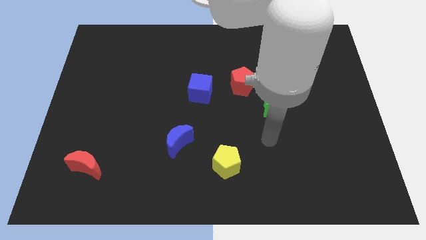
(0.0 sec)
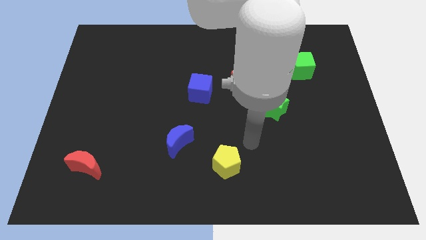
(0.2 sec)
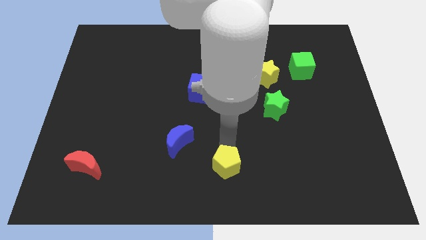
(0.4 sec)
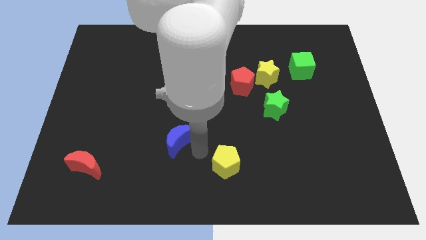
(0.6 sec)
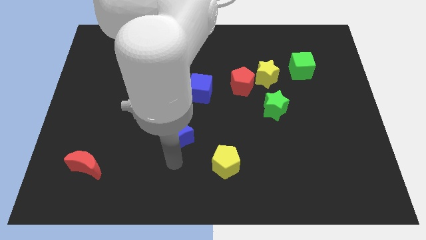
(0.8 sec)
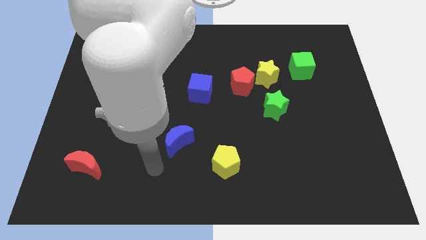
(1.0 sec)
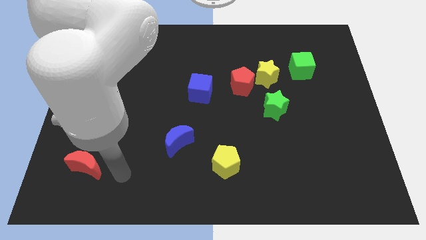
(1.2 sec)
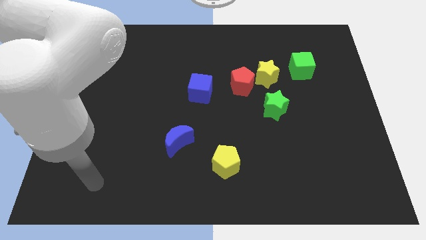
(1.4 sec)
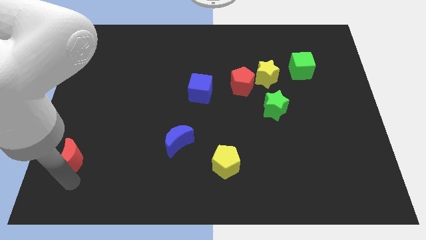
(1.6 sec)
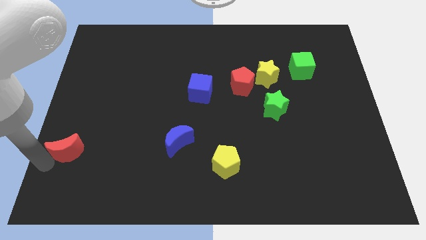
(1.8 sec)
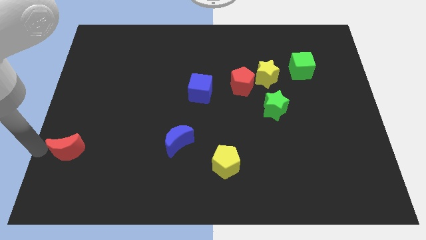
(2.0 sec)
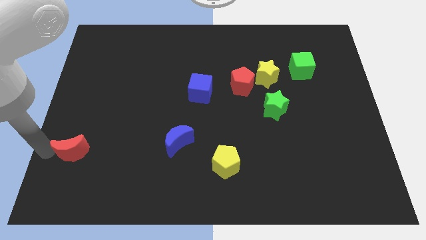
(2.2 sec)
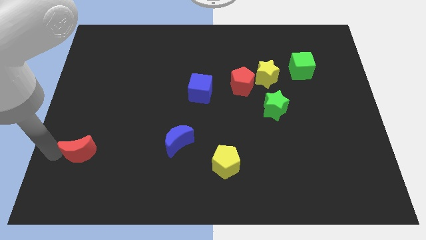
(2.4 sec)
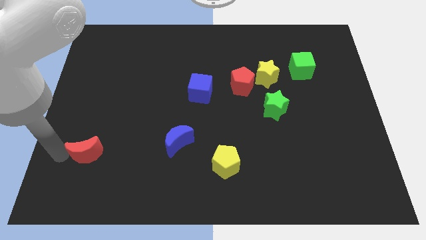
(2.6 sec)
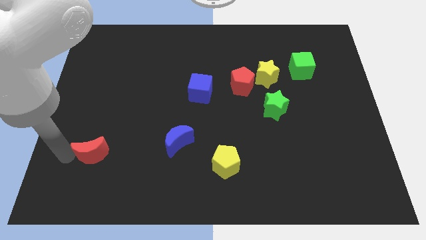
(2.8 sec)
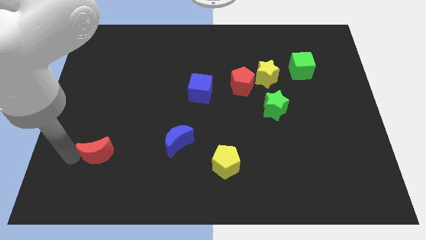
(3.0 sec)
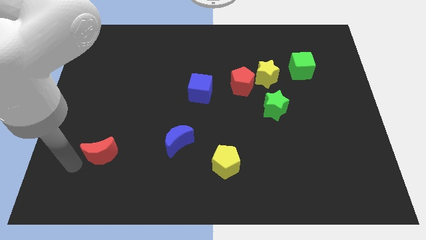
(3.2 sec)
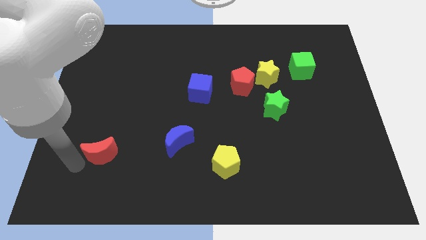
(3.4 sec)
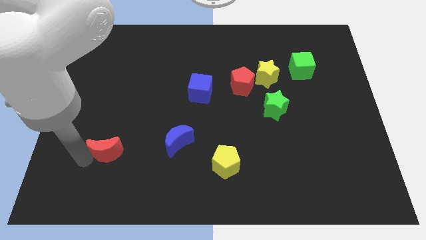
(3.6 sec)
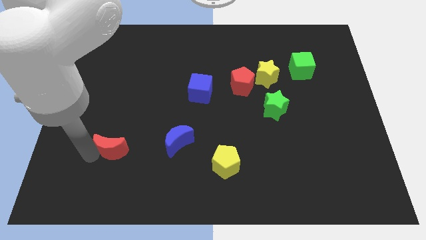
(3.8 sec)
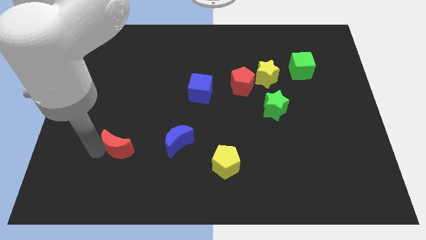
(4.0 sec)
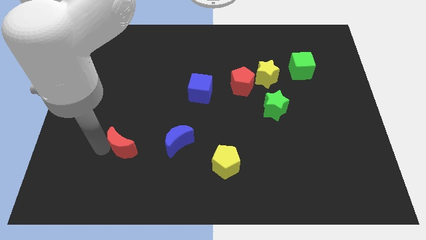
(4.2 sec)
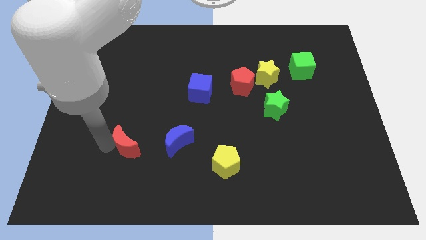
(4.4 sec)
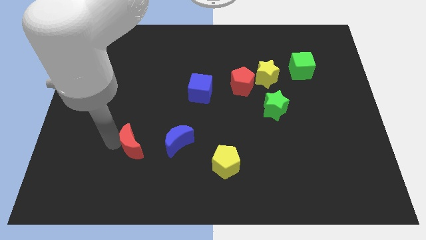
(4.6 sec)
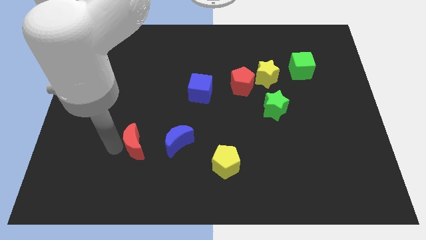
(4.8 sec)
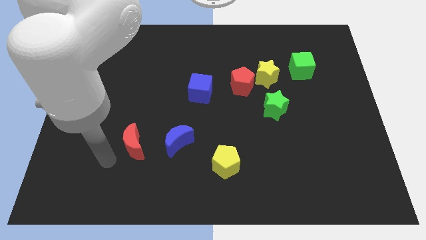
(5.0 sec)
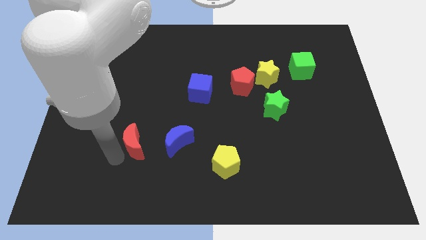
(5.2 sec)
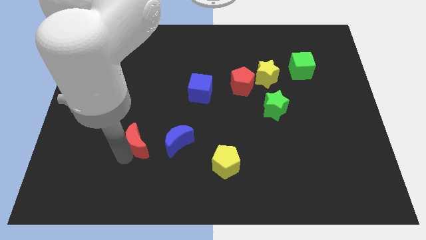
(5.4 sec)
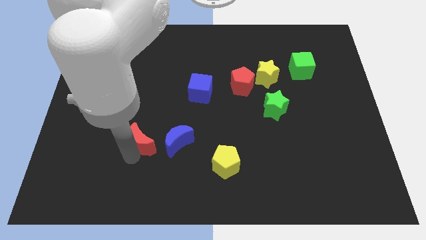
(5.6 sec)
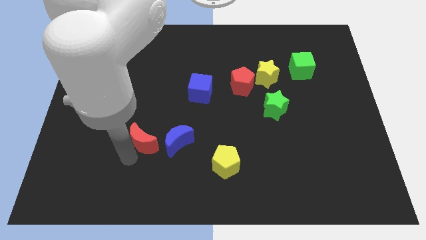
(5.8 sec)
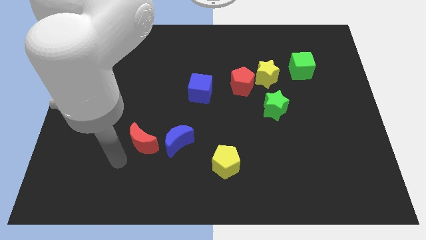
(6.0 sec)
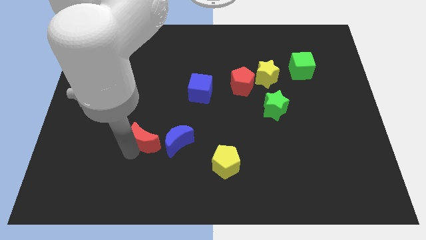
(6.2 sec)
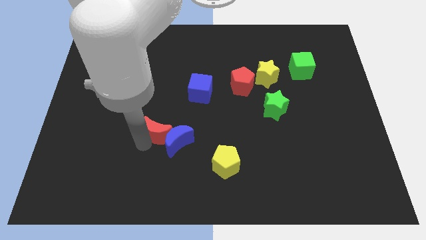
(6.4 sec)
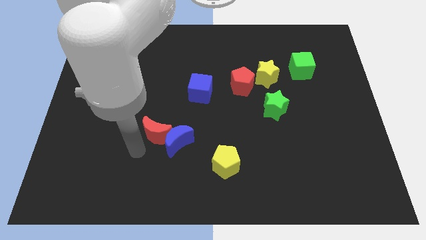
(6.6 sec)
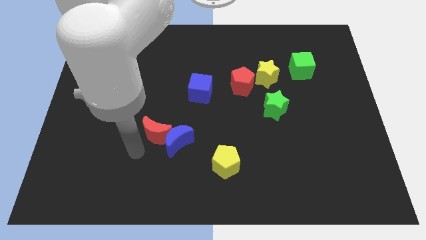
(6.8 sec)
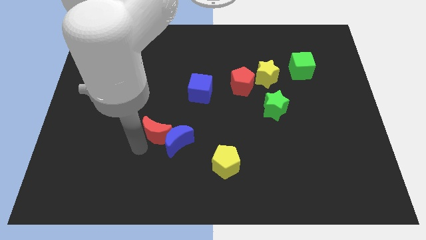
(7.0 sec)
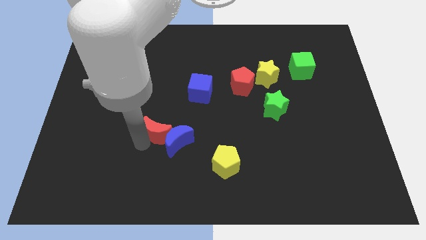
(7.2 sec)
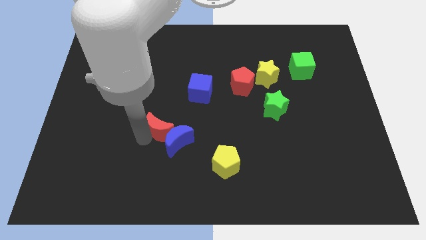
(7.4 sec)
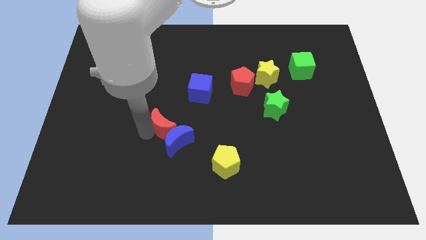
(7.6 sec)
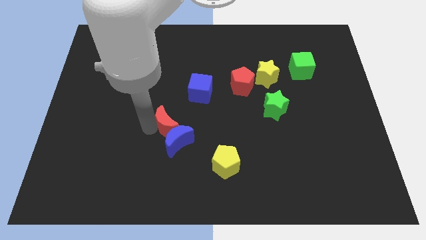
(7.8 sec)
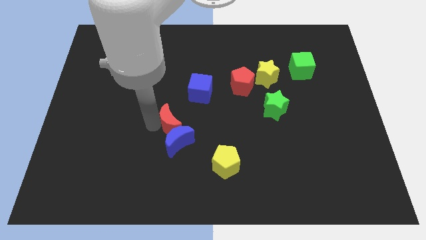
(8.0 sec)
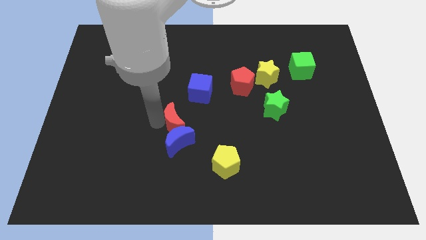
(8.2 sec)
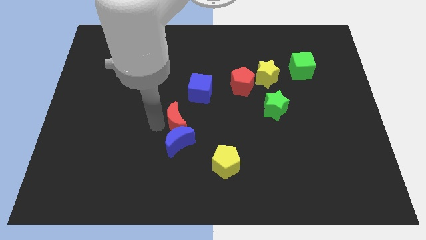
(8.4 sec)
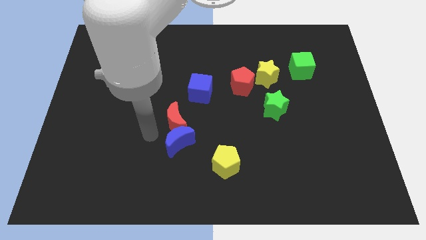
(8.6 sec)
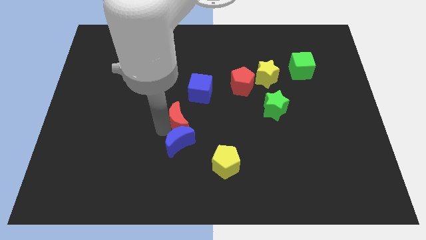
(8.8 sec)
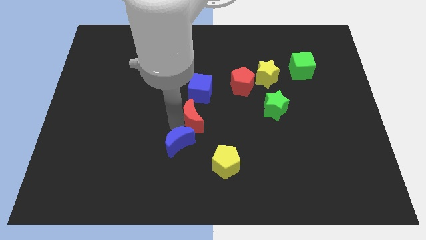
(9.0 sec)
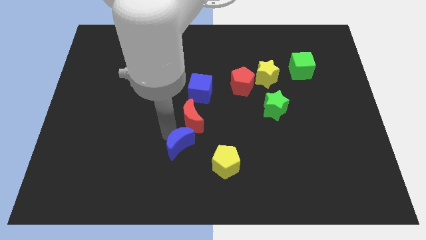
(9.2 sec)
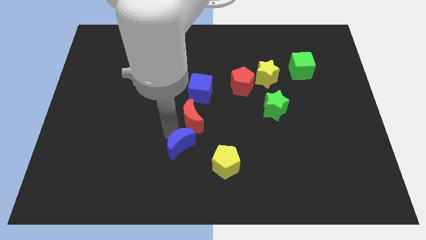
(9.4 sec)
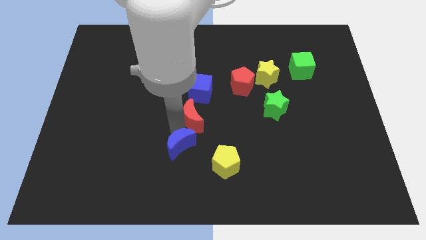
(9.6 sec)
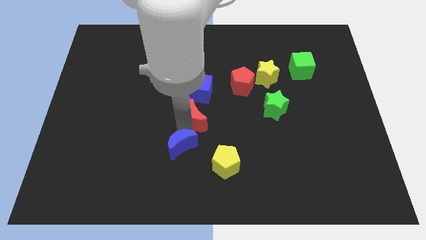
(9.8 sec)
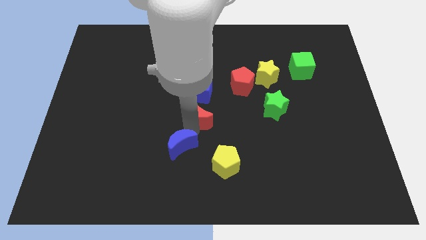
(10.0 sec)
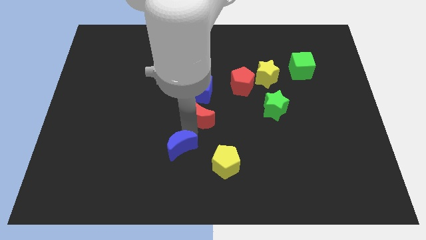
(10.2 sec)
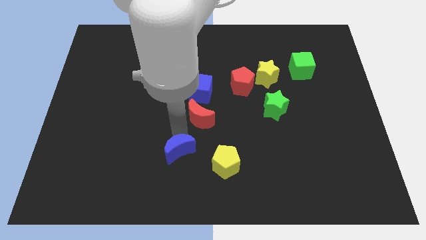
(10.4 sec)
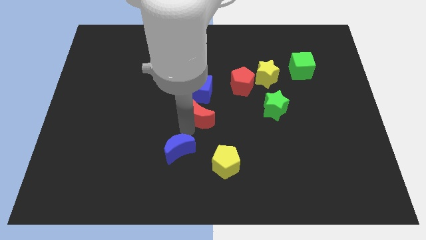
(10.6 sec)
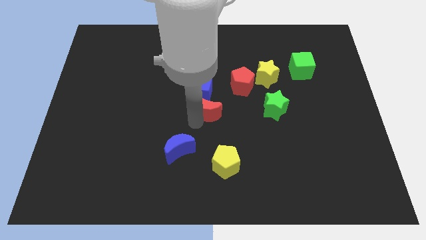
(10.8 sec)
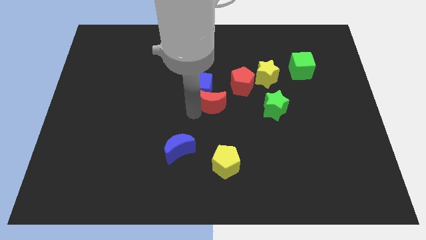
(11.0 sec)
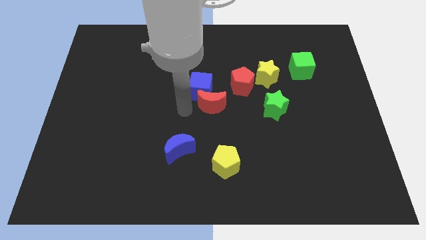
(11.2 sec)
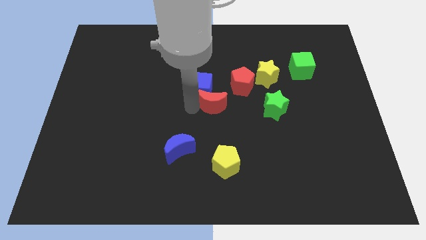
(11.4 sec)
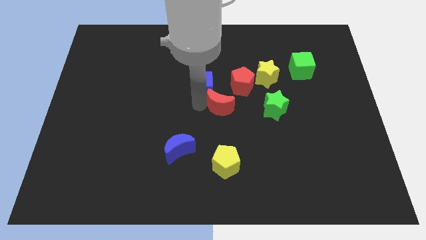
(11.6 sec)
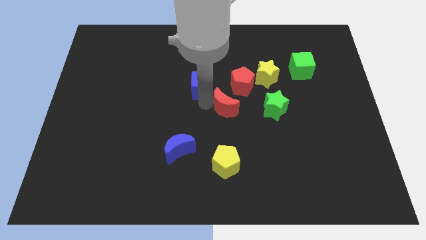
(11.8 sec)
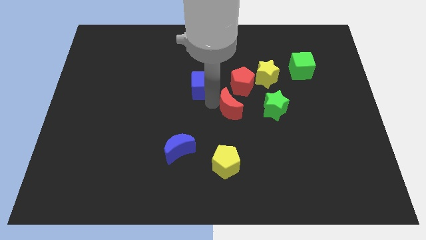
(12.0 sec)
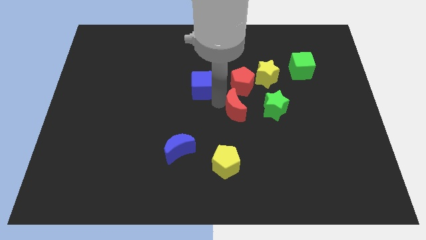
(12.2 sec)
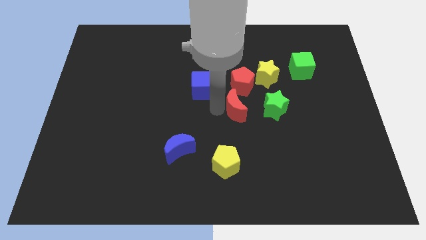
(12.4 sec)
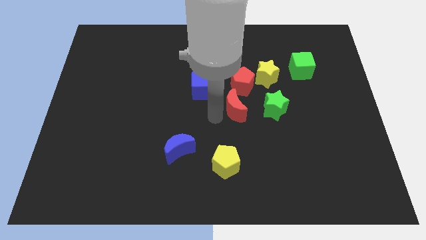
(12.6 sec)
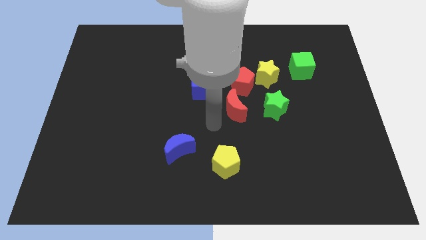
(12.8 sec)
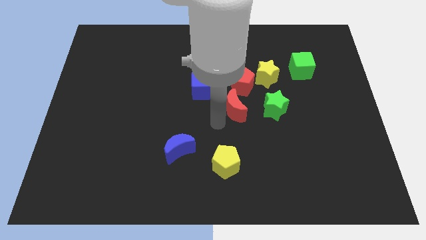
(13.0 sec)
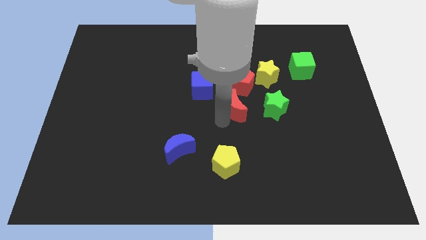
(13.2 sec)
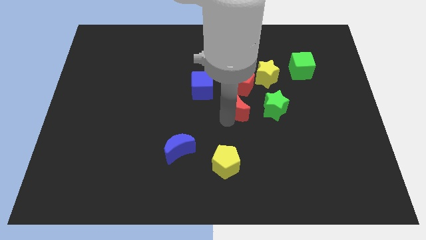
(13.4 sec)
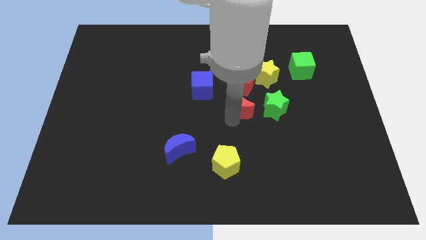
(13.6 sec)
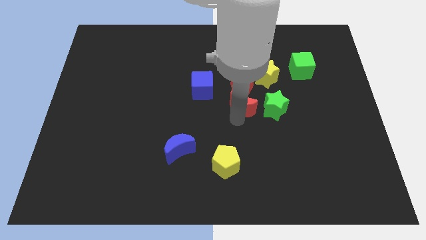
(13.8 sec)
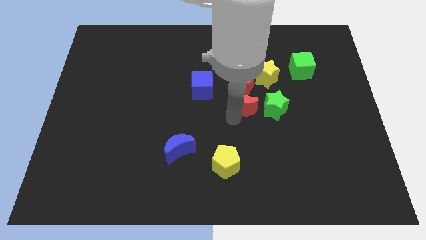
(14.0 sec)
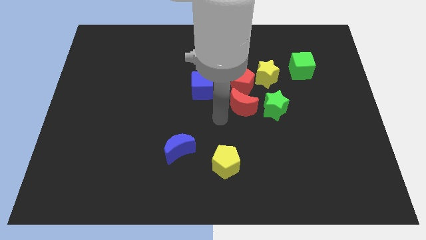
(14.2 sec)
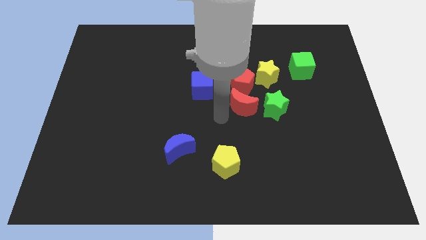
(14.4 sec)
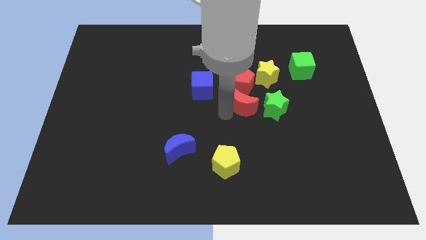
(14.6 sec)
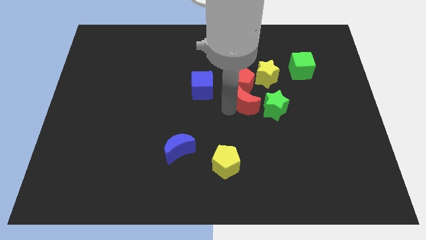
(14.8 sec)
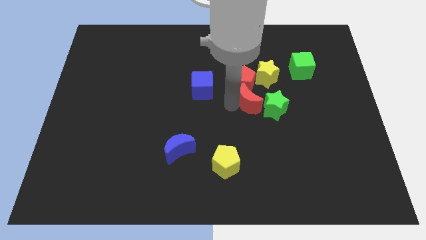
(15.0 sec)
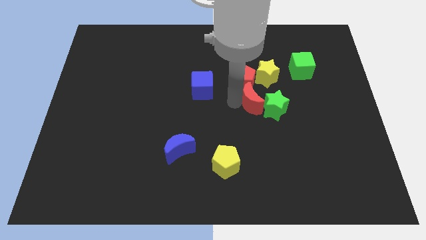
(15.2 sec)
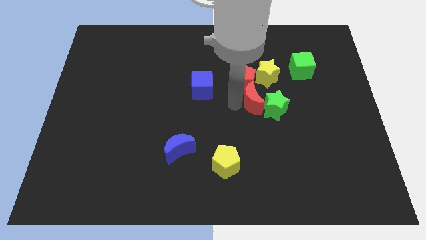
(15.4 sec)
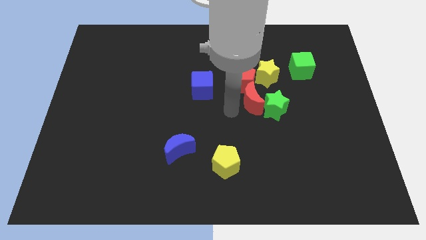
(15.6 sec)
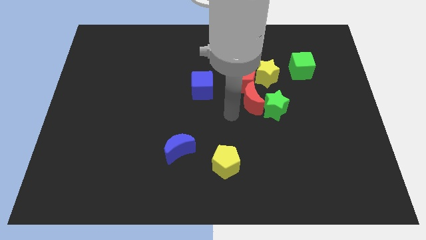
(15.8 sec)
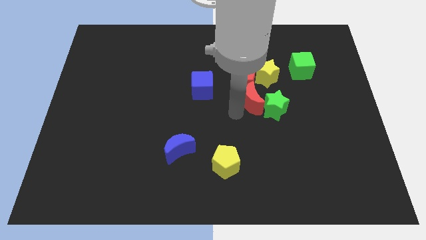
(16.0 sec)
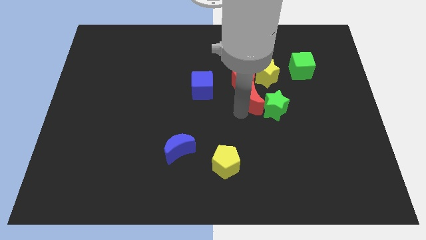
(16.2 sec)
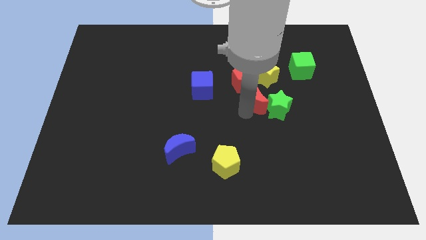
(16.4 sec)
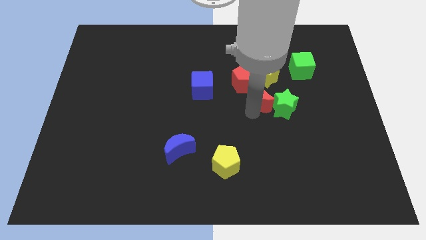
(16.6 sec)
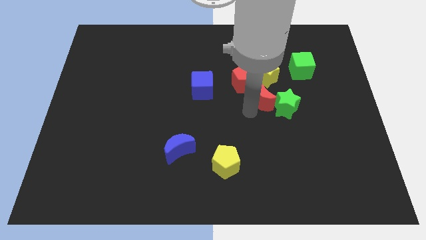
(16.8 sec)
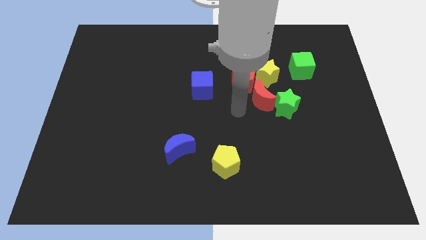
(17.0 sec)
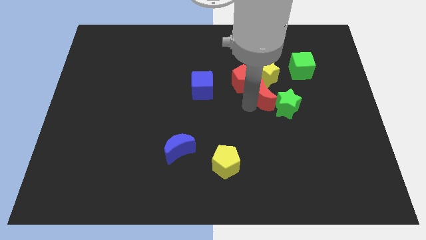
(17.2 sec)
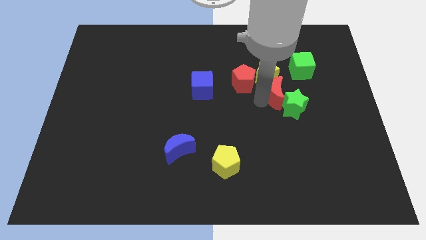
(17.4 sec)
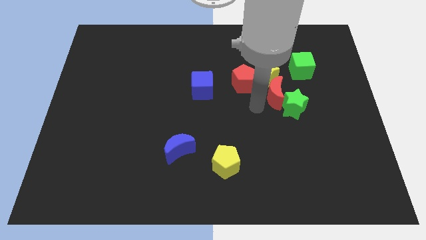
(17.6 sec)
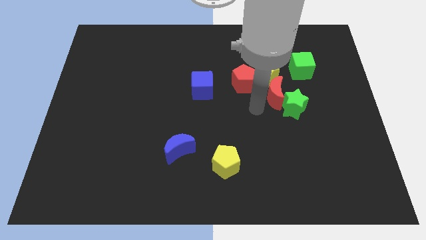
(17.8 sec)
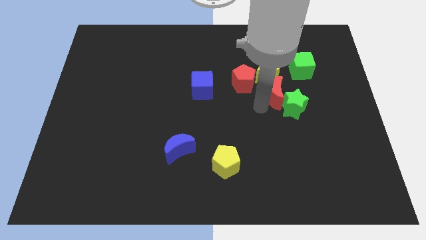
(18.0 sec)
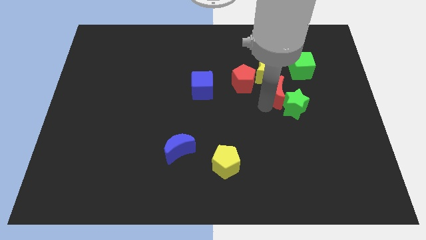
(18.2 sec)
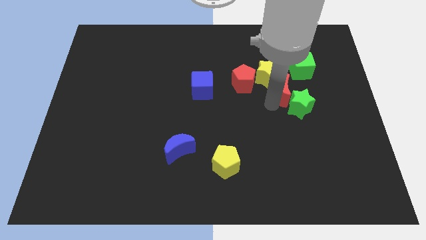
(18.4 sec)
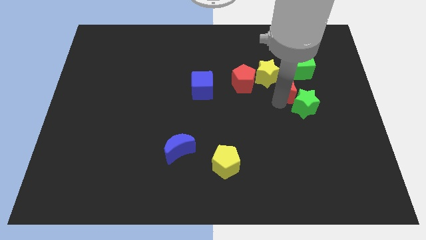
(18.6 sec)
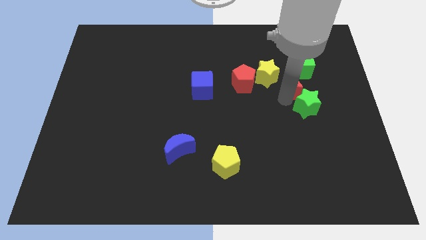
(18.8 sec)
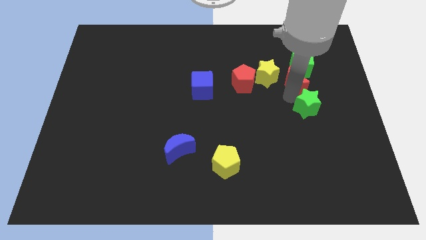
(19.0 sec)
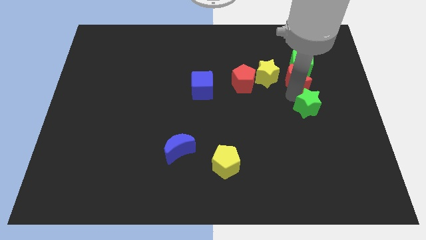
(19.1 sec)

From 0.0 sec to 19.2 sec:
put the red moon to the green cube
